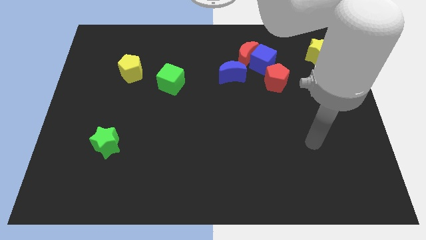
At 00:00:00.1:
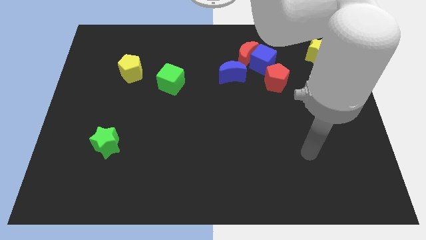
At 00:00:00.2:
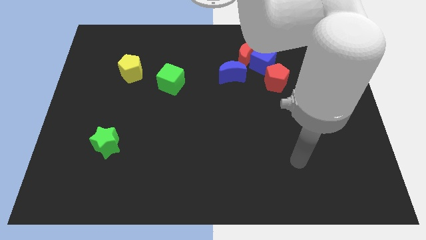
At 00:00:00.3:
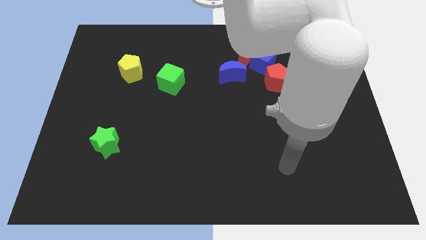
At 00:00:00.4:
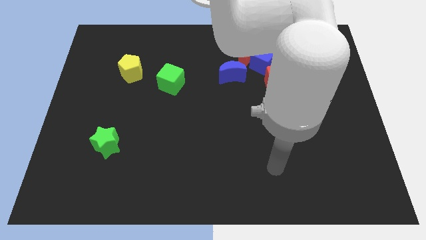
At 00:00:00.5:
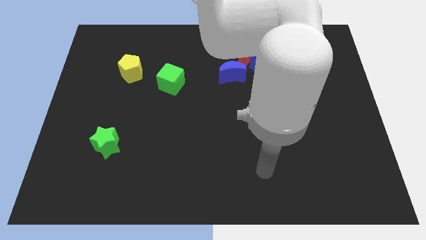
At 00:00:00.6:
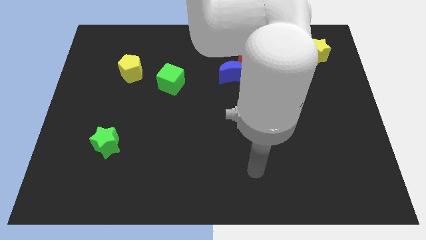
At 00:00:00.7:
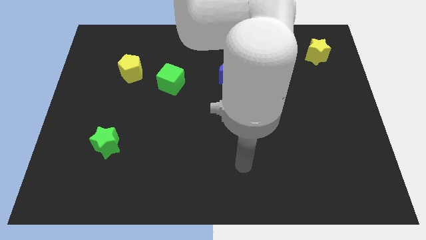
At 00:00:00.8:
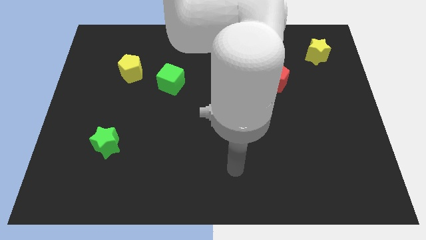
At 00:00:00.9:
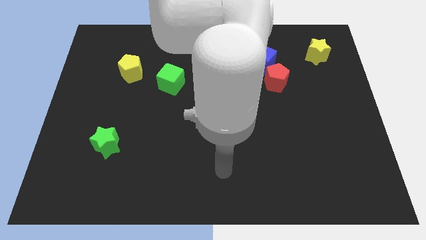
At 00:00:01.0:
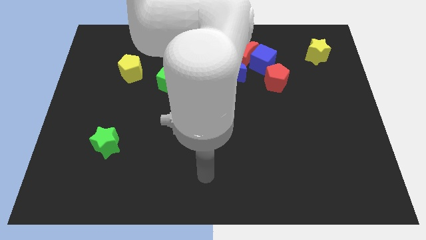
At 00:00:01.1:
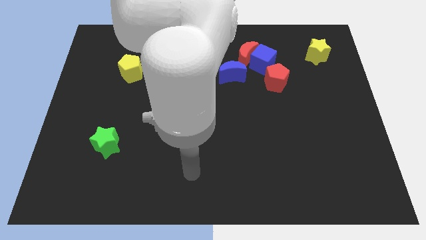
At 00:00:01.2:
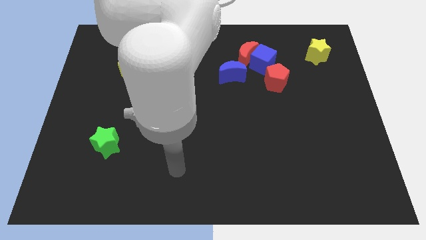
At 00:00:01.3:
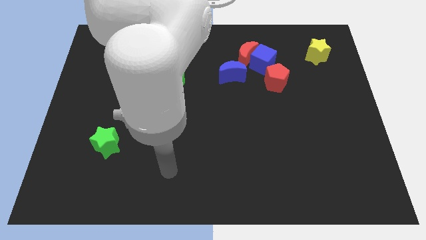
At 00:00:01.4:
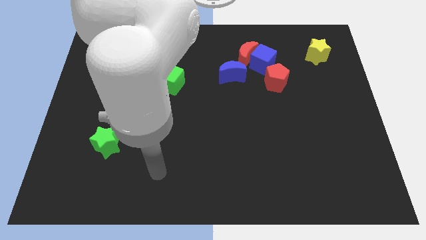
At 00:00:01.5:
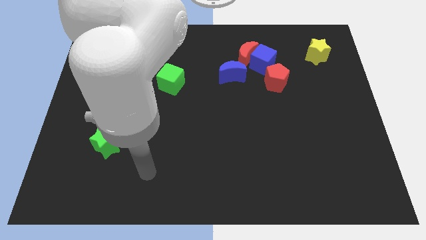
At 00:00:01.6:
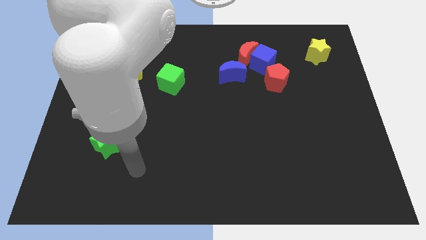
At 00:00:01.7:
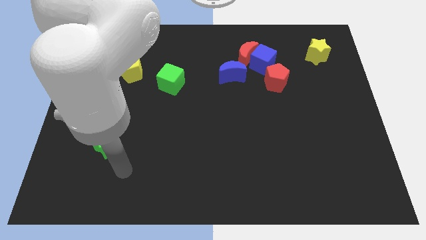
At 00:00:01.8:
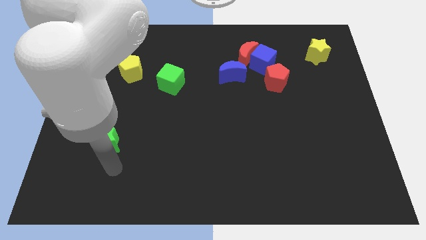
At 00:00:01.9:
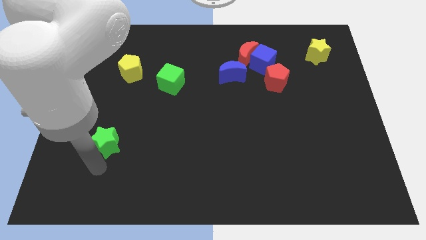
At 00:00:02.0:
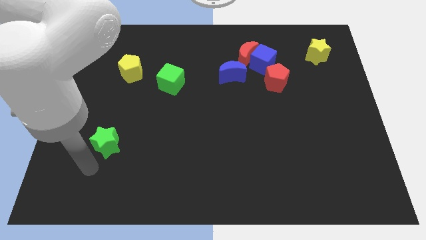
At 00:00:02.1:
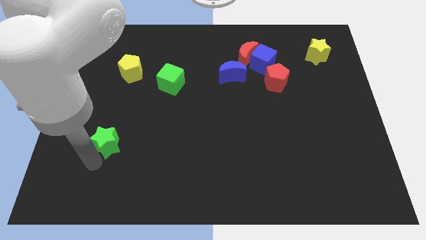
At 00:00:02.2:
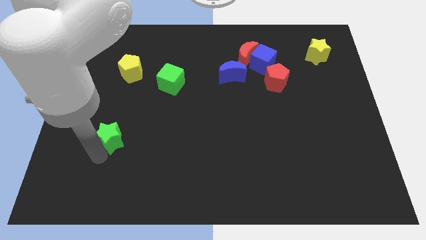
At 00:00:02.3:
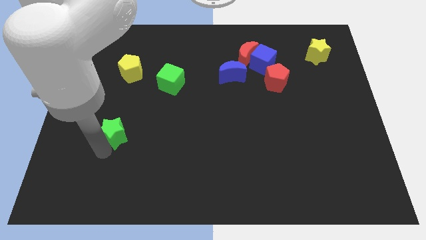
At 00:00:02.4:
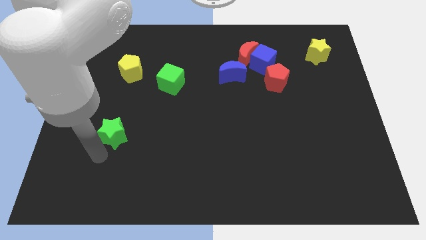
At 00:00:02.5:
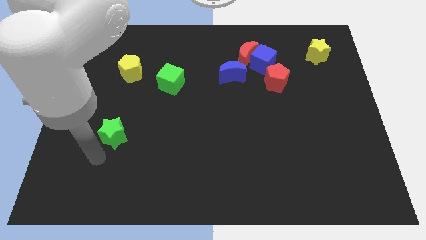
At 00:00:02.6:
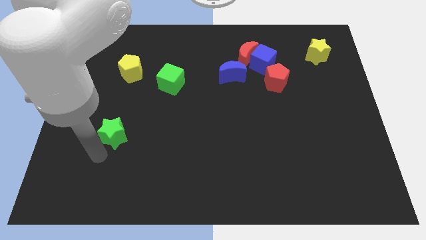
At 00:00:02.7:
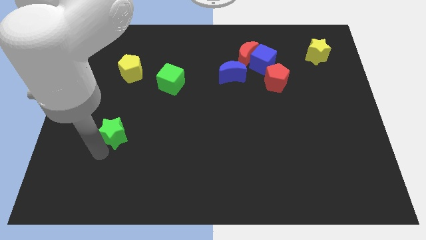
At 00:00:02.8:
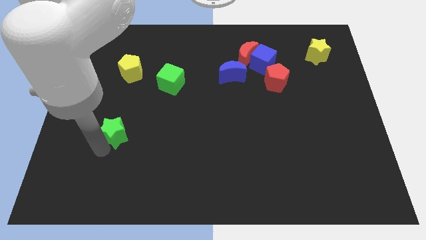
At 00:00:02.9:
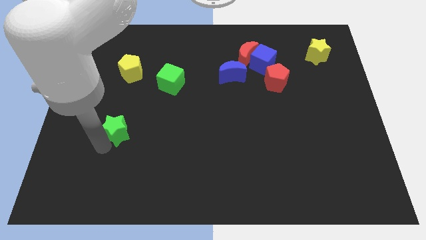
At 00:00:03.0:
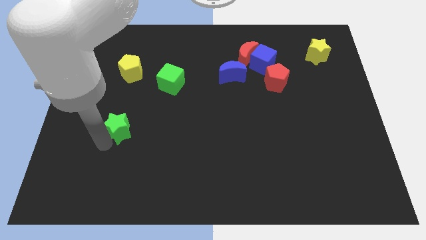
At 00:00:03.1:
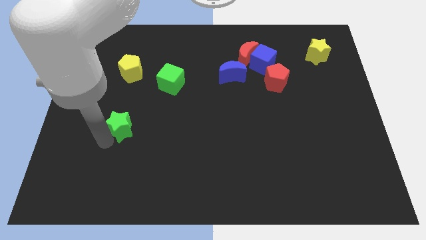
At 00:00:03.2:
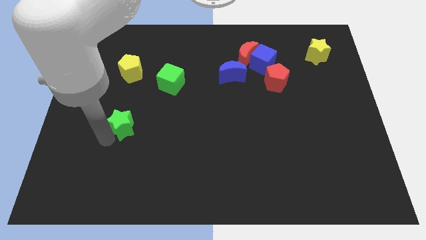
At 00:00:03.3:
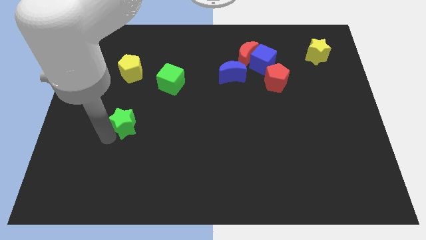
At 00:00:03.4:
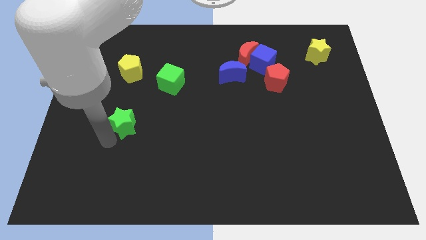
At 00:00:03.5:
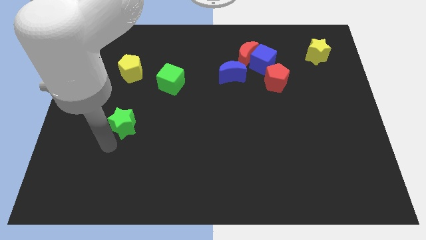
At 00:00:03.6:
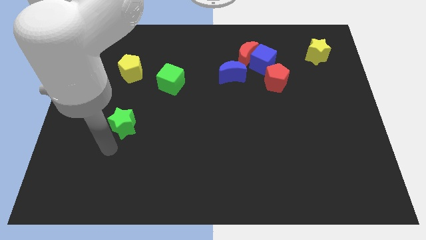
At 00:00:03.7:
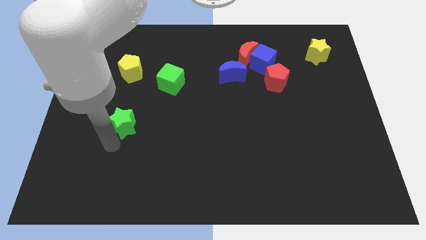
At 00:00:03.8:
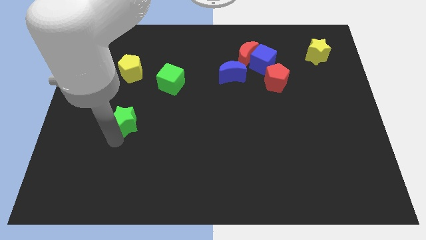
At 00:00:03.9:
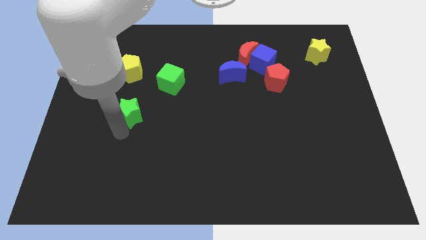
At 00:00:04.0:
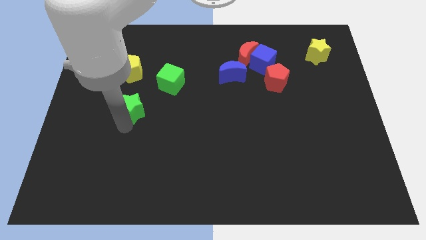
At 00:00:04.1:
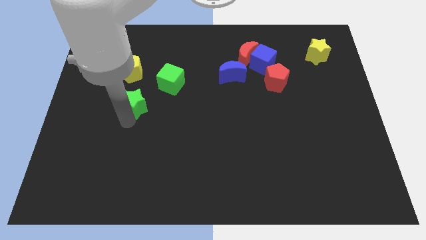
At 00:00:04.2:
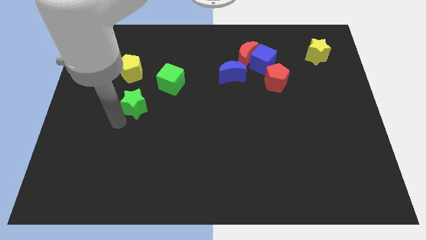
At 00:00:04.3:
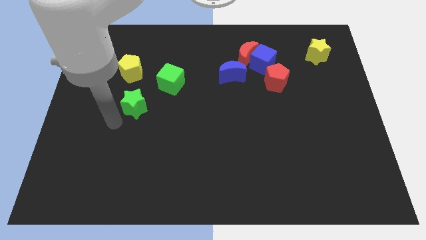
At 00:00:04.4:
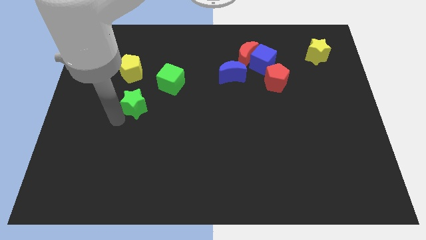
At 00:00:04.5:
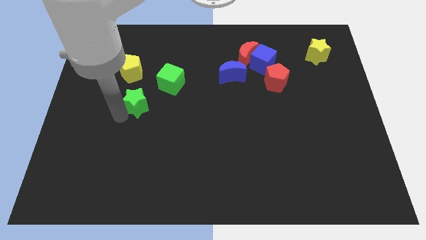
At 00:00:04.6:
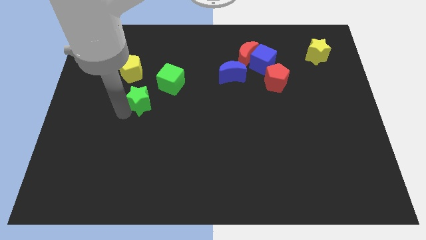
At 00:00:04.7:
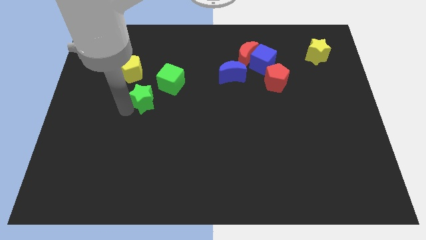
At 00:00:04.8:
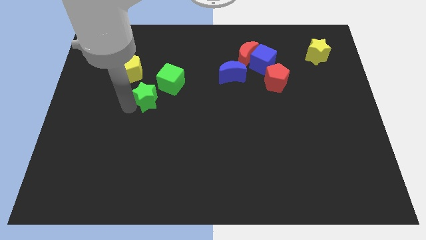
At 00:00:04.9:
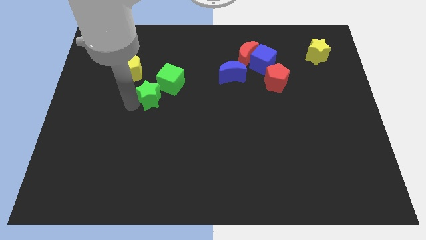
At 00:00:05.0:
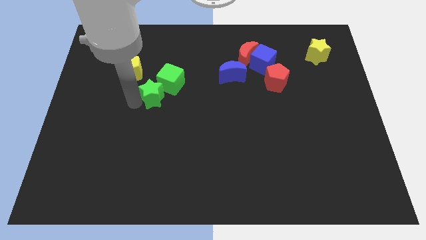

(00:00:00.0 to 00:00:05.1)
put the green star next to the green cube

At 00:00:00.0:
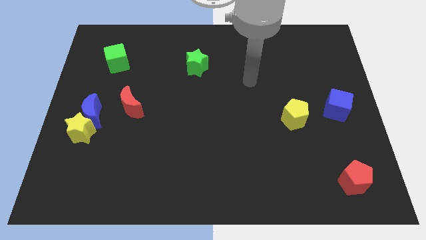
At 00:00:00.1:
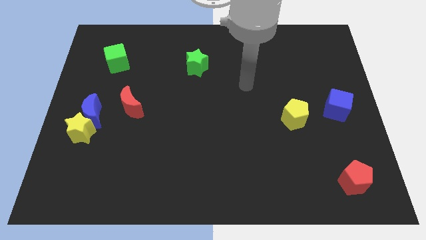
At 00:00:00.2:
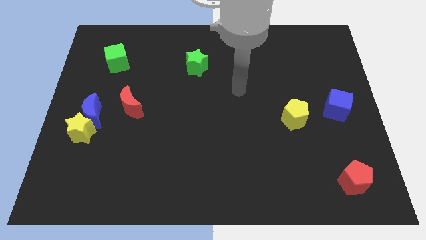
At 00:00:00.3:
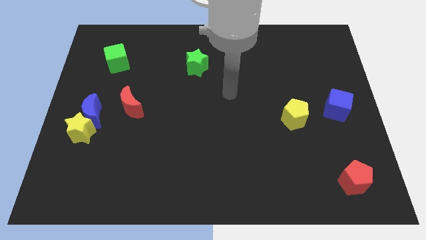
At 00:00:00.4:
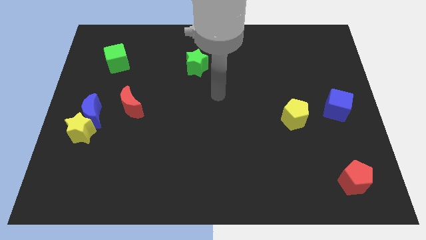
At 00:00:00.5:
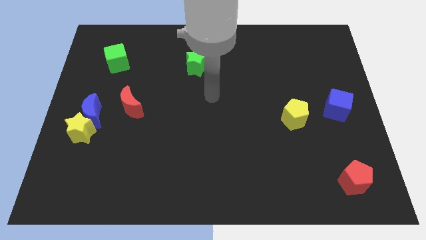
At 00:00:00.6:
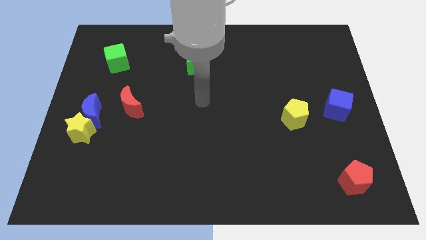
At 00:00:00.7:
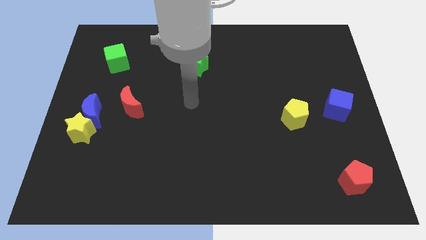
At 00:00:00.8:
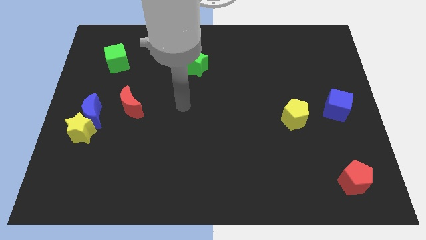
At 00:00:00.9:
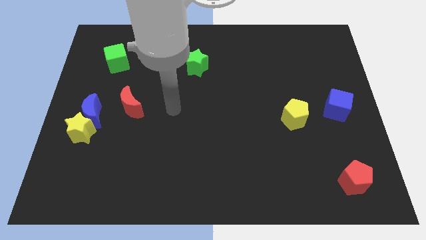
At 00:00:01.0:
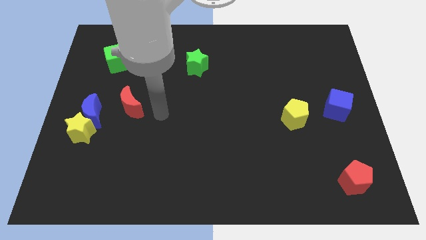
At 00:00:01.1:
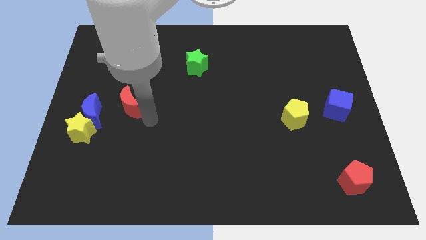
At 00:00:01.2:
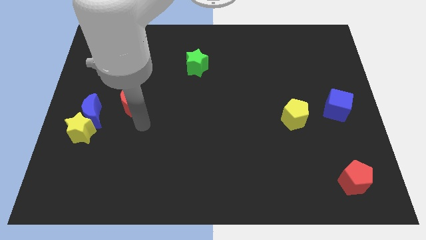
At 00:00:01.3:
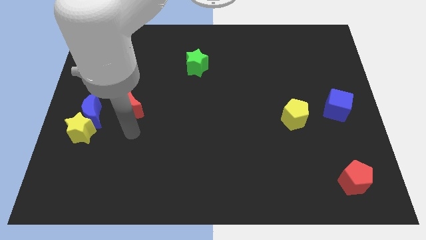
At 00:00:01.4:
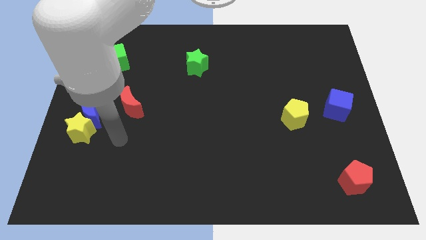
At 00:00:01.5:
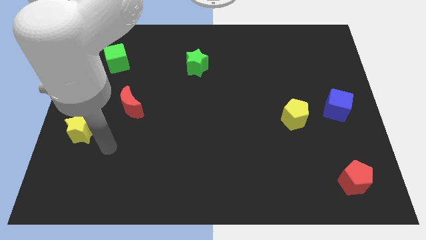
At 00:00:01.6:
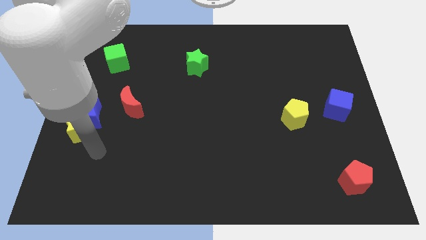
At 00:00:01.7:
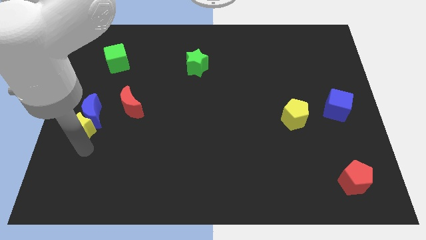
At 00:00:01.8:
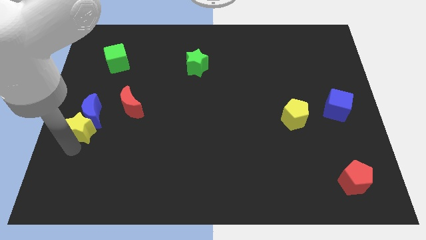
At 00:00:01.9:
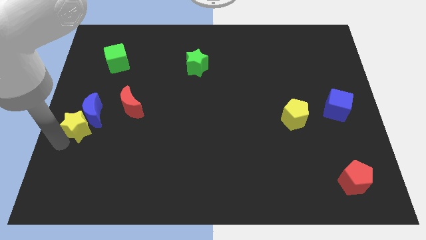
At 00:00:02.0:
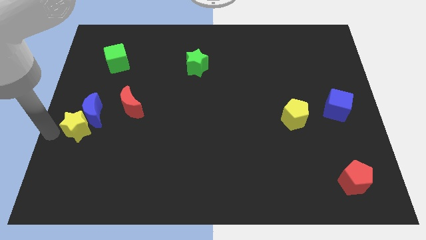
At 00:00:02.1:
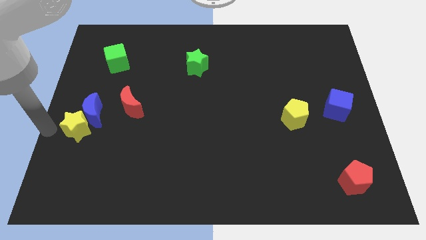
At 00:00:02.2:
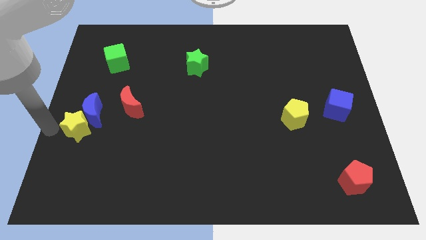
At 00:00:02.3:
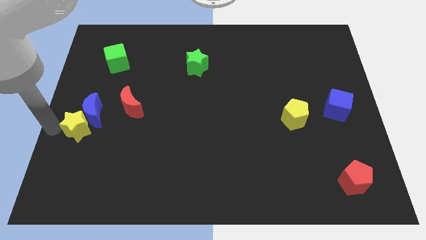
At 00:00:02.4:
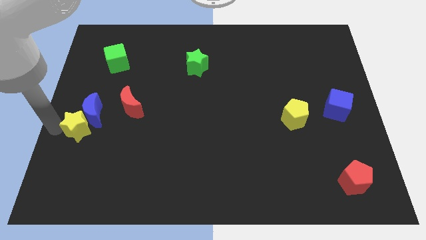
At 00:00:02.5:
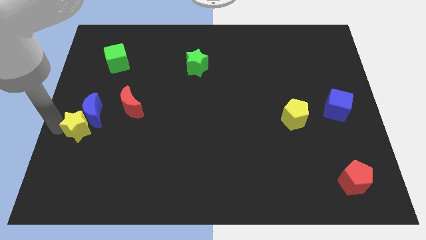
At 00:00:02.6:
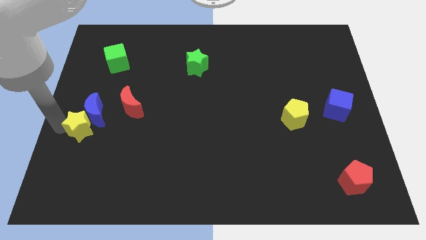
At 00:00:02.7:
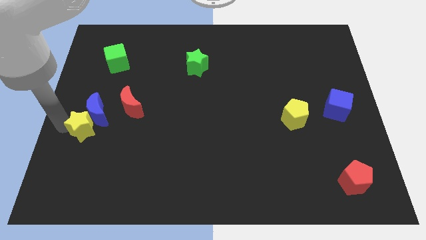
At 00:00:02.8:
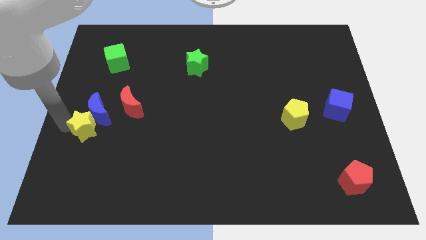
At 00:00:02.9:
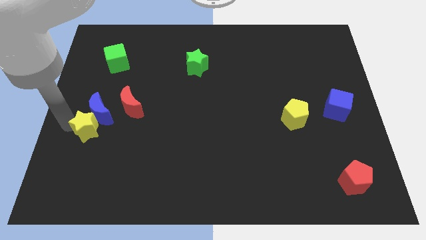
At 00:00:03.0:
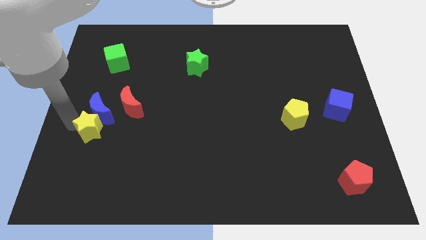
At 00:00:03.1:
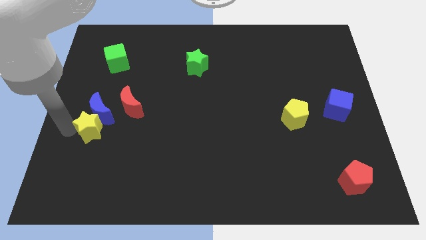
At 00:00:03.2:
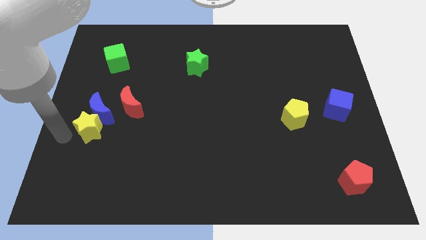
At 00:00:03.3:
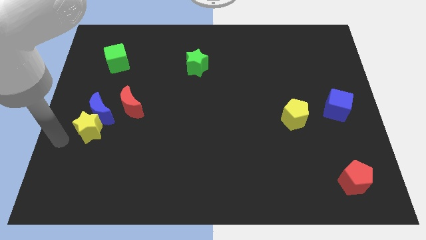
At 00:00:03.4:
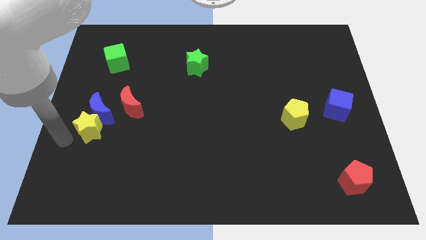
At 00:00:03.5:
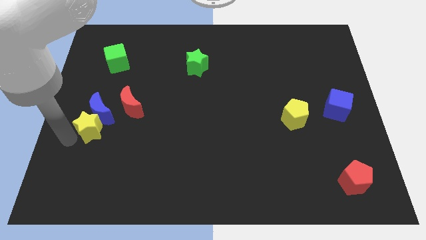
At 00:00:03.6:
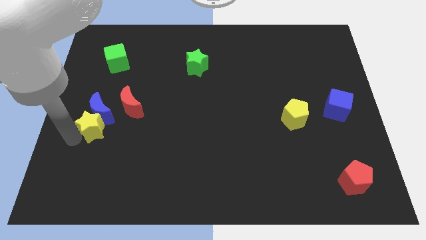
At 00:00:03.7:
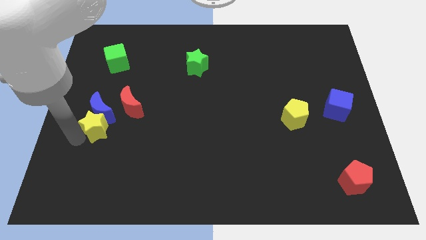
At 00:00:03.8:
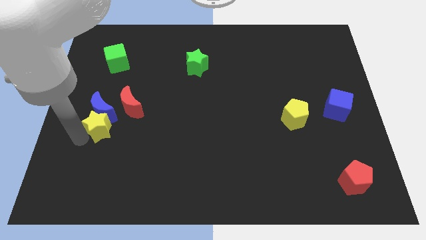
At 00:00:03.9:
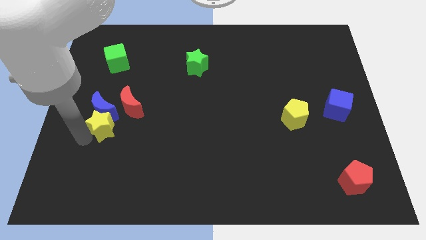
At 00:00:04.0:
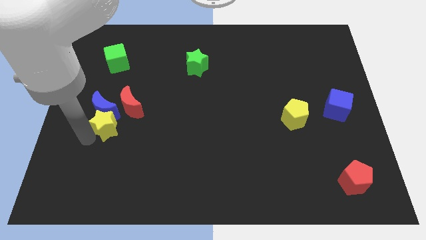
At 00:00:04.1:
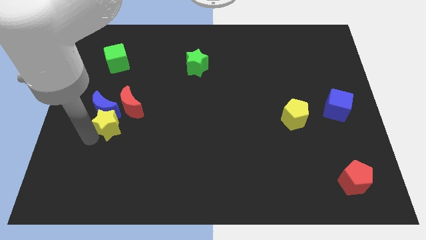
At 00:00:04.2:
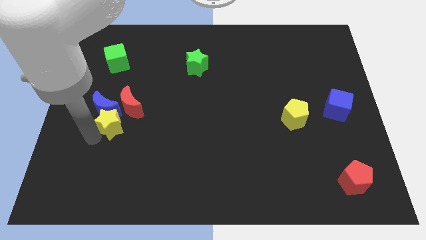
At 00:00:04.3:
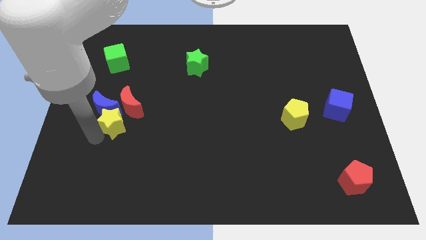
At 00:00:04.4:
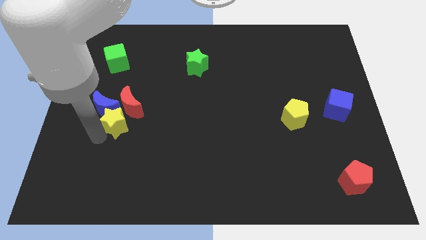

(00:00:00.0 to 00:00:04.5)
put the yellow star close to the red moon
